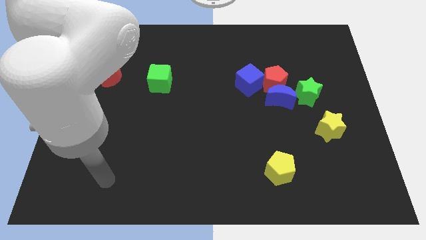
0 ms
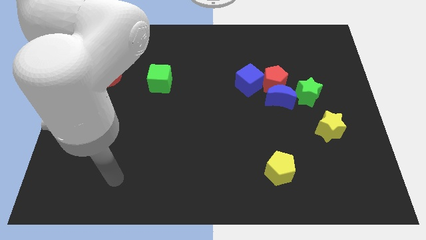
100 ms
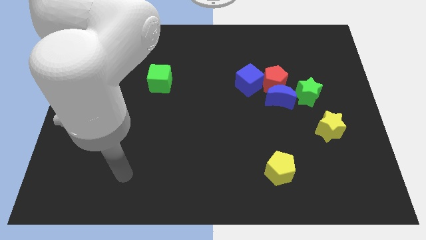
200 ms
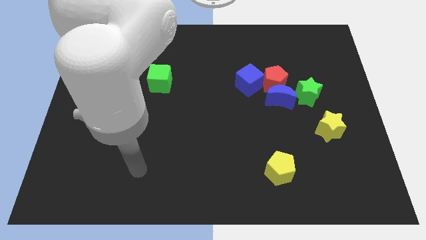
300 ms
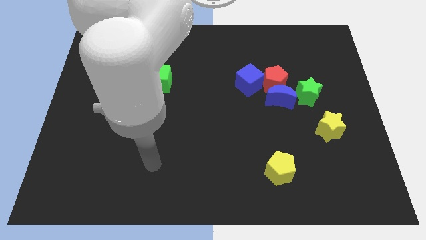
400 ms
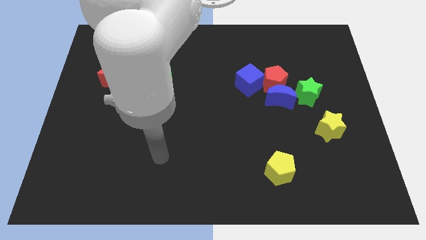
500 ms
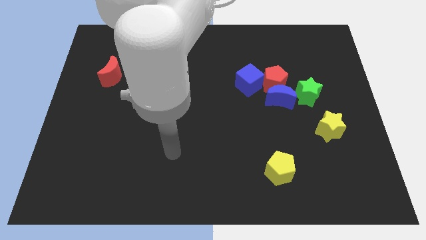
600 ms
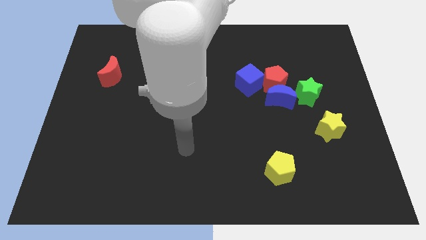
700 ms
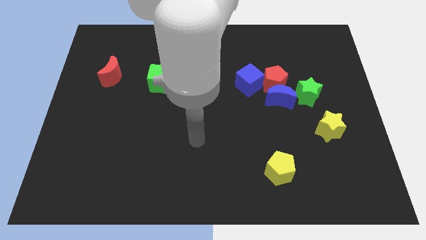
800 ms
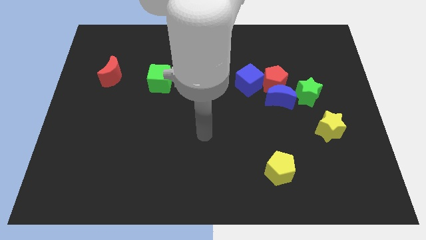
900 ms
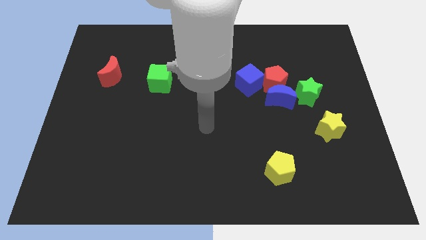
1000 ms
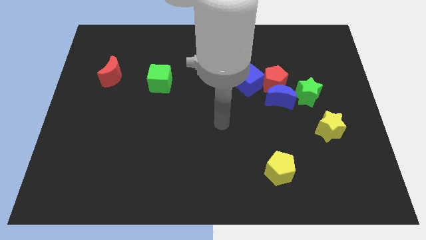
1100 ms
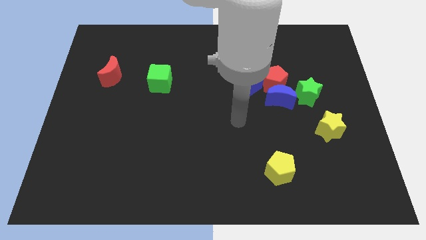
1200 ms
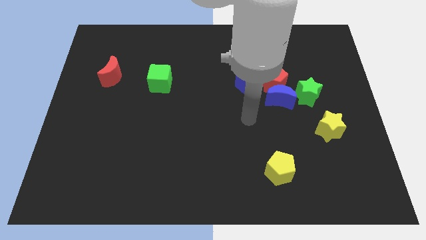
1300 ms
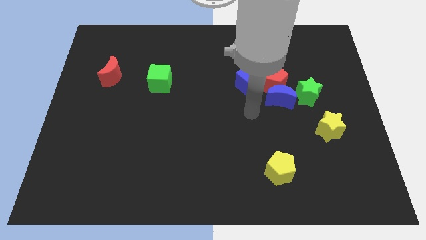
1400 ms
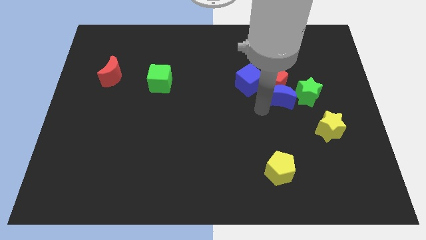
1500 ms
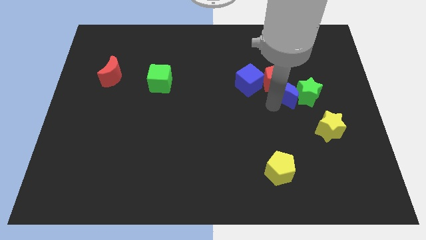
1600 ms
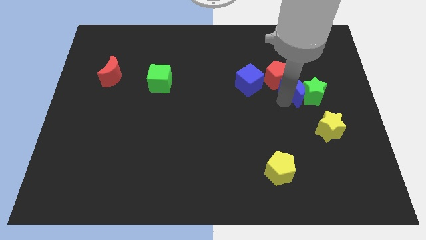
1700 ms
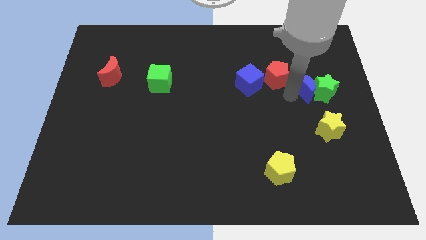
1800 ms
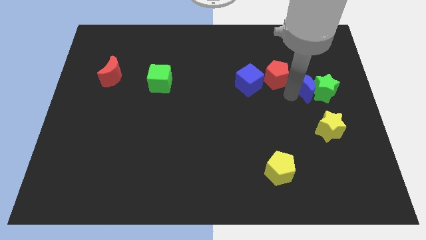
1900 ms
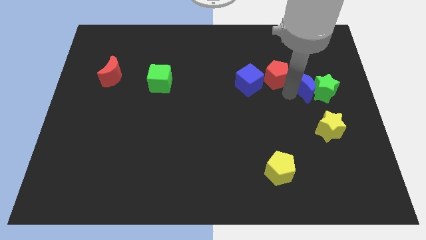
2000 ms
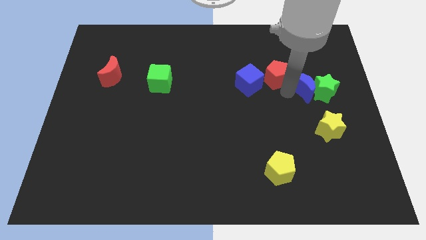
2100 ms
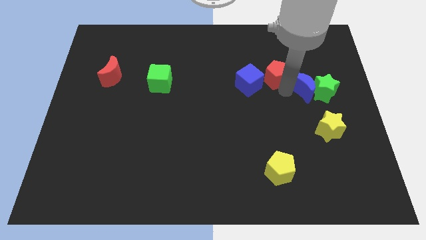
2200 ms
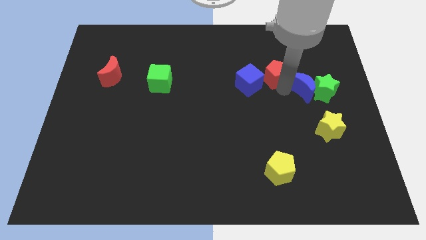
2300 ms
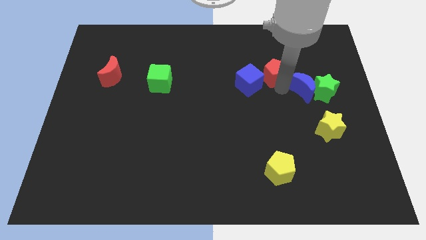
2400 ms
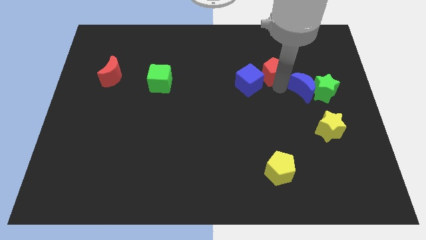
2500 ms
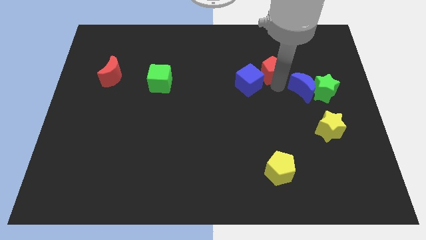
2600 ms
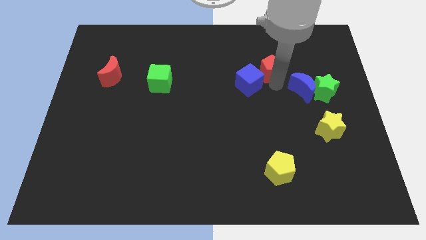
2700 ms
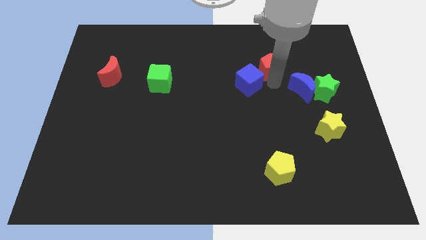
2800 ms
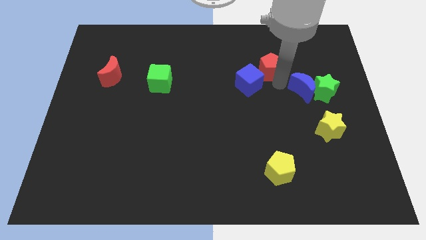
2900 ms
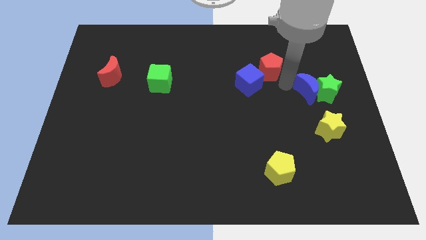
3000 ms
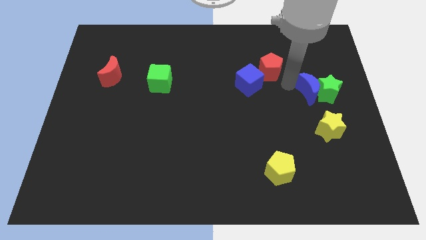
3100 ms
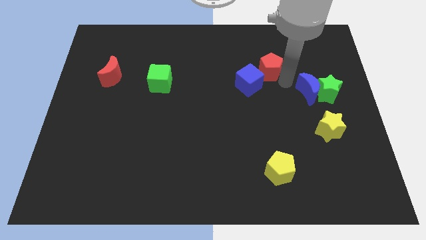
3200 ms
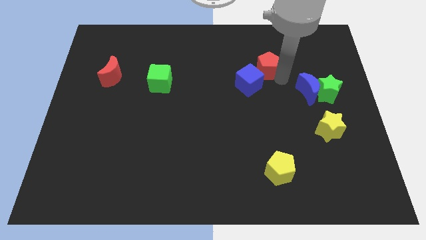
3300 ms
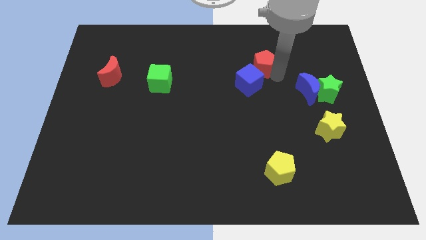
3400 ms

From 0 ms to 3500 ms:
pull the red pentagon apart from the clump

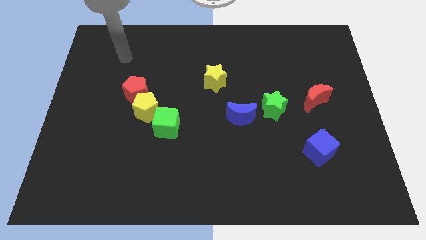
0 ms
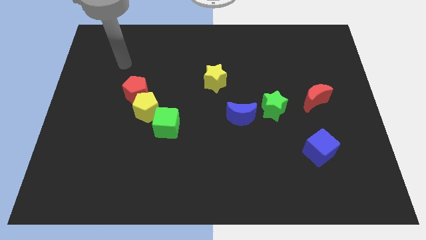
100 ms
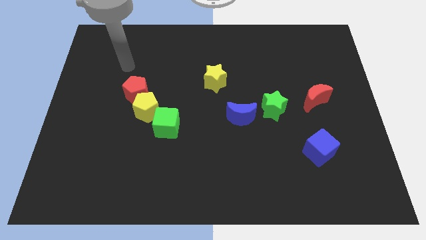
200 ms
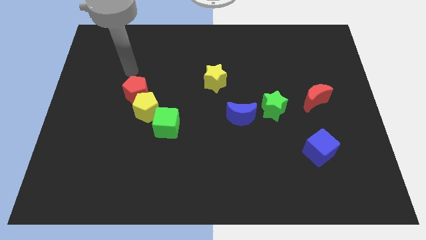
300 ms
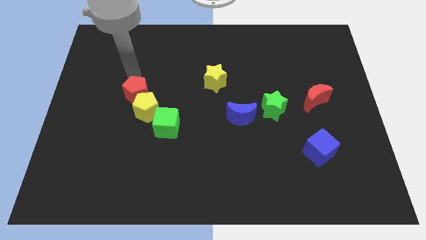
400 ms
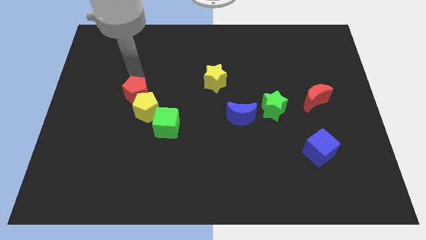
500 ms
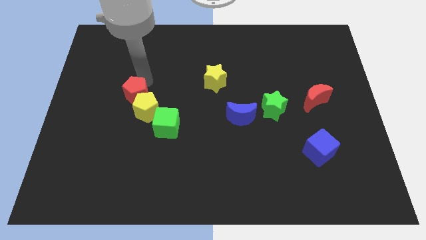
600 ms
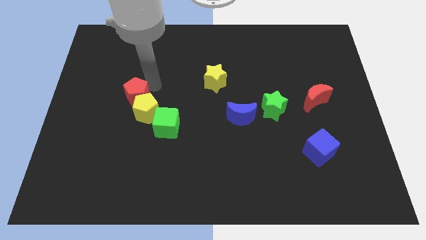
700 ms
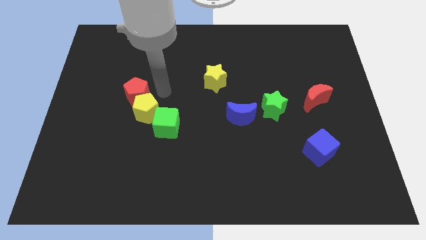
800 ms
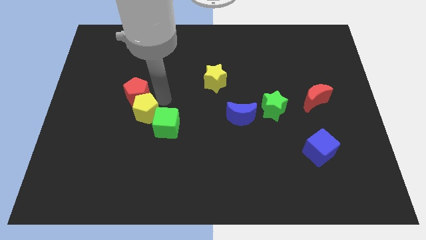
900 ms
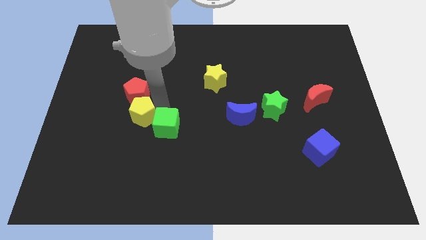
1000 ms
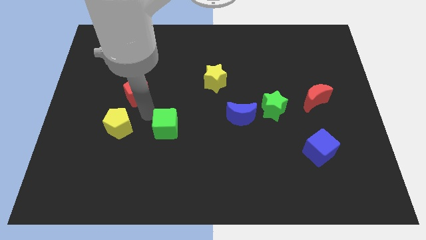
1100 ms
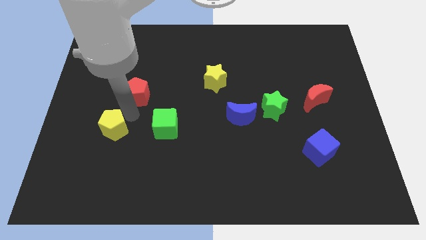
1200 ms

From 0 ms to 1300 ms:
separate the red pentagon from the yellow pentagon

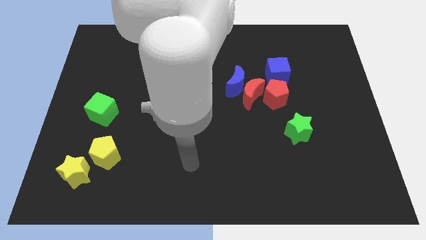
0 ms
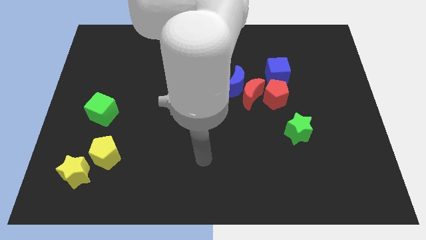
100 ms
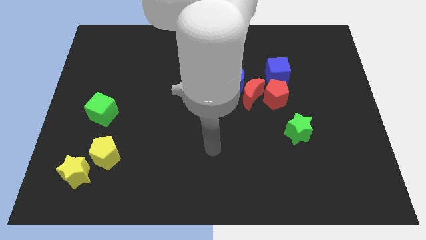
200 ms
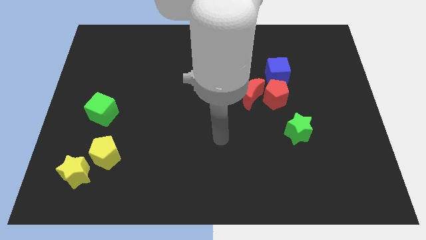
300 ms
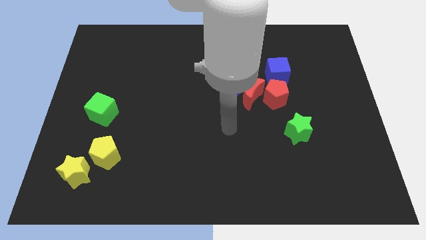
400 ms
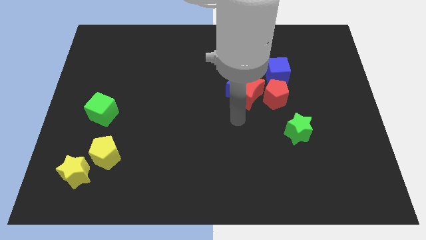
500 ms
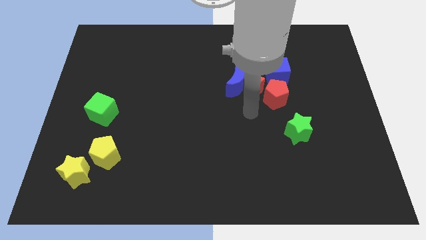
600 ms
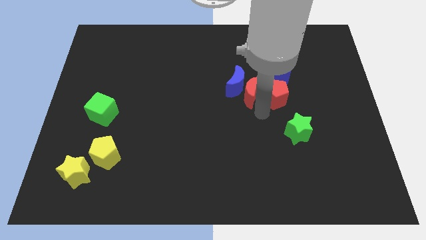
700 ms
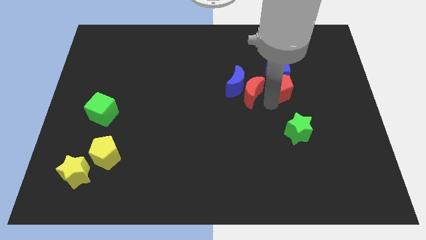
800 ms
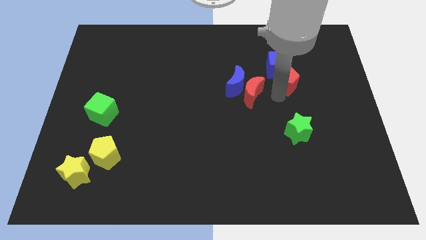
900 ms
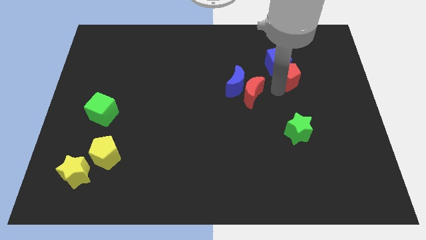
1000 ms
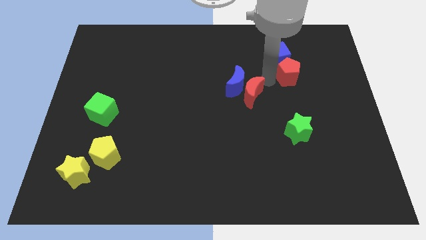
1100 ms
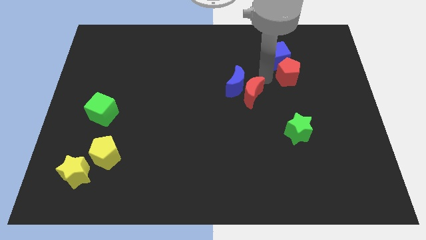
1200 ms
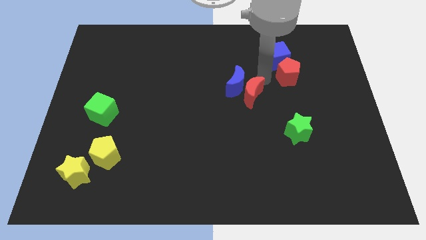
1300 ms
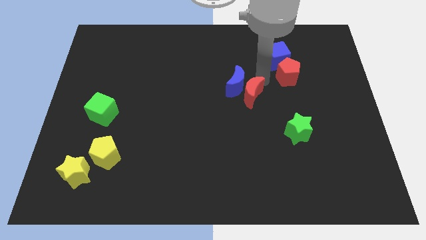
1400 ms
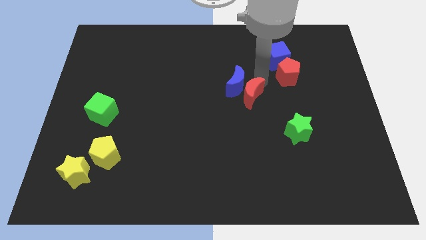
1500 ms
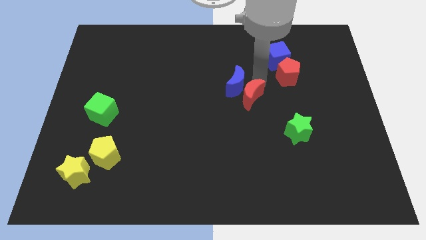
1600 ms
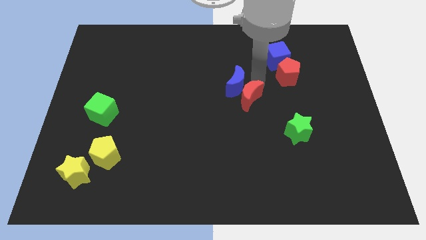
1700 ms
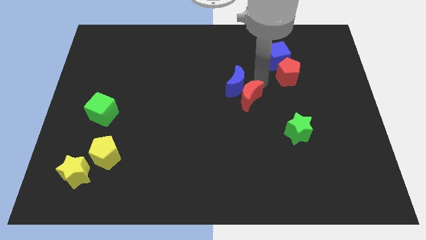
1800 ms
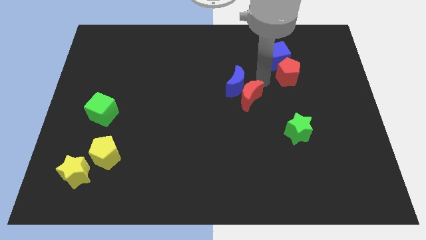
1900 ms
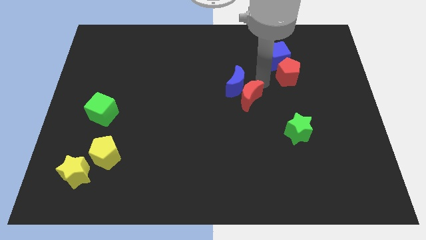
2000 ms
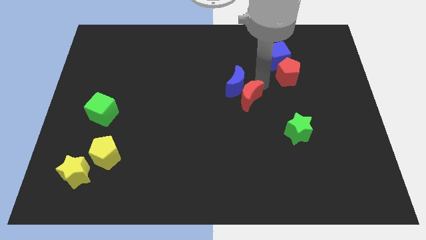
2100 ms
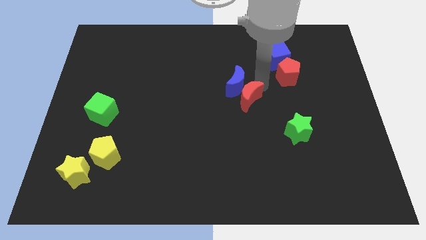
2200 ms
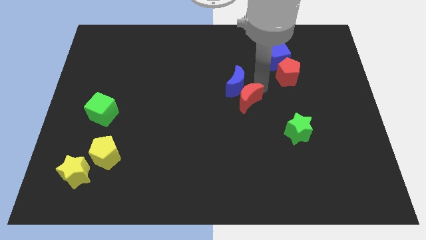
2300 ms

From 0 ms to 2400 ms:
pull the red moon apart from the blue moon, red pentagon, and blue cube

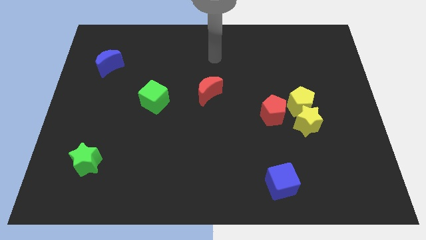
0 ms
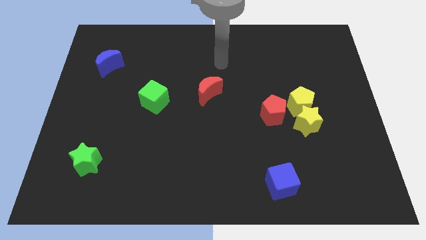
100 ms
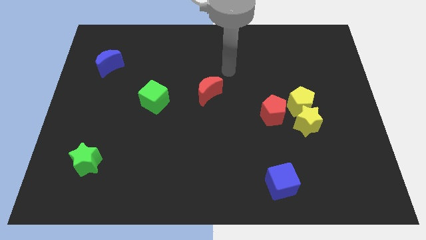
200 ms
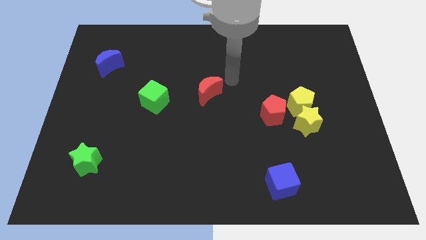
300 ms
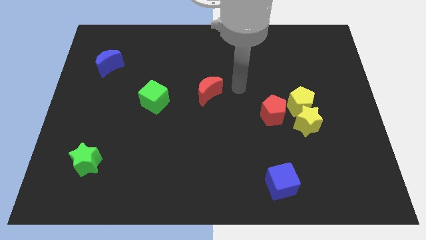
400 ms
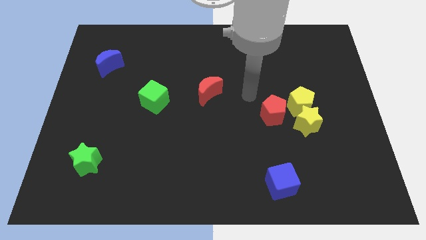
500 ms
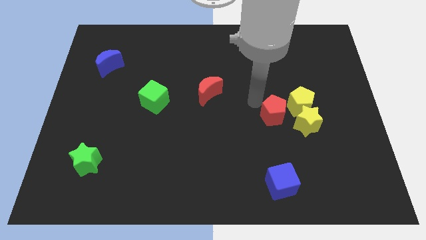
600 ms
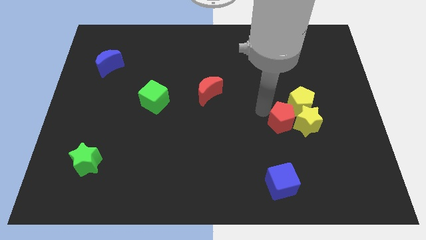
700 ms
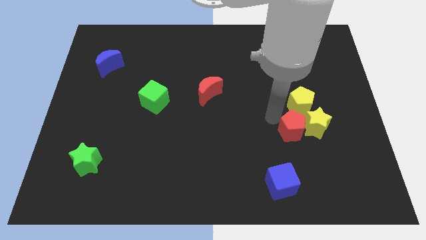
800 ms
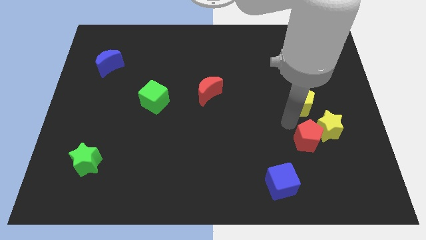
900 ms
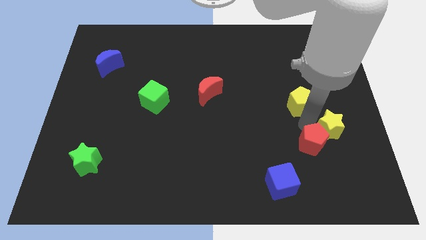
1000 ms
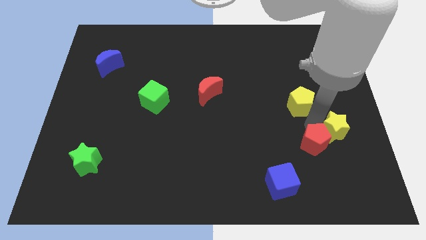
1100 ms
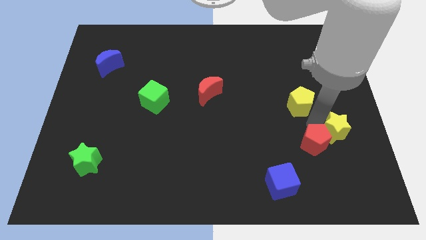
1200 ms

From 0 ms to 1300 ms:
move the yellow pentagon away from the yellow star and red pentagon

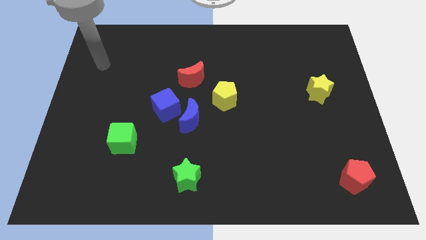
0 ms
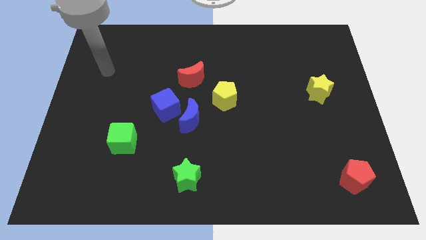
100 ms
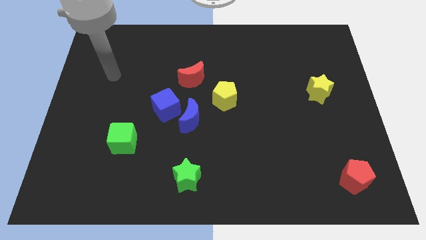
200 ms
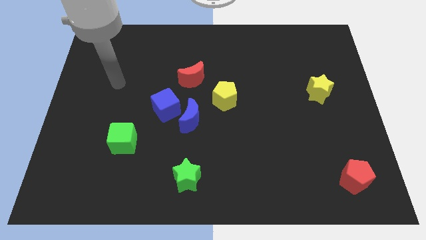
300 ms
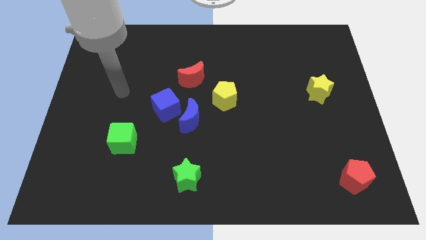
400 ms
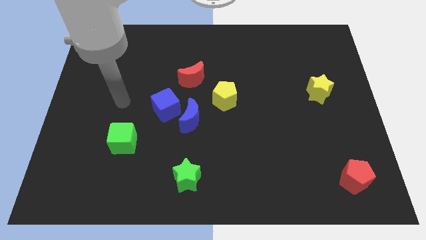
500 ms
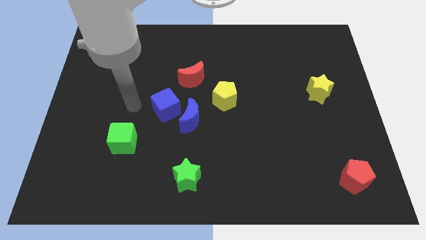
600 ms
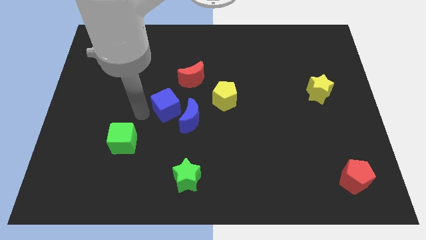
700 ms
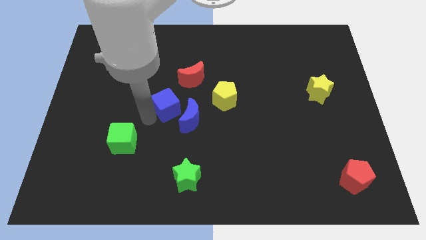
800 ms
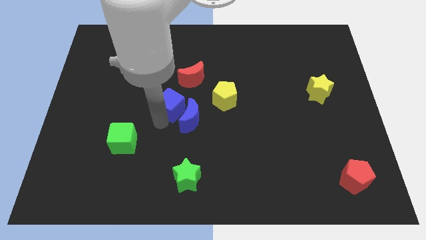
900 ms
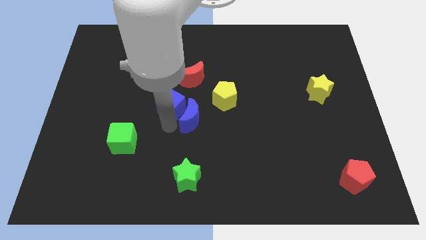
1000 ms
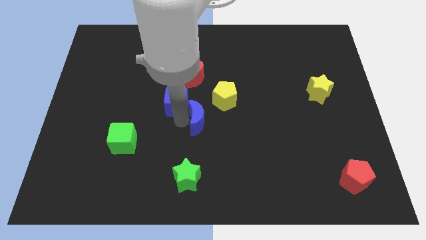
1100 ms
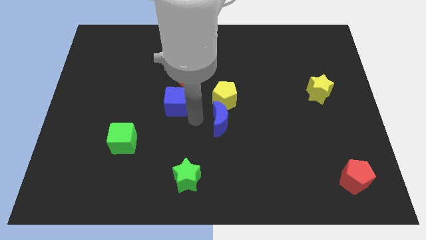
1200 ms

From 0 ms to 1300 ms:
move the blue cube away from the blue moon
